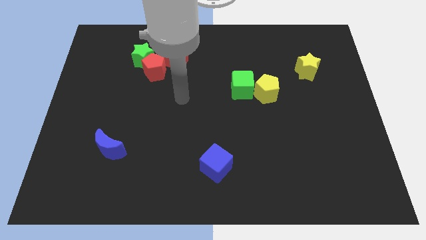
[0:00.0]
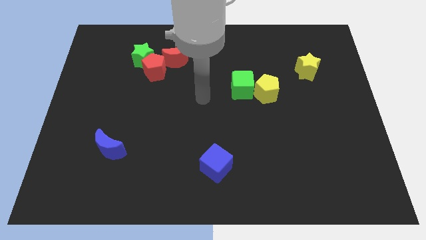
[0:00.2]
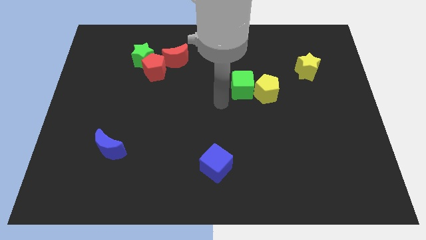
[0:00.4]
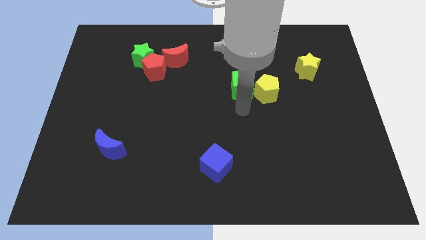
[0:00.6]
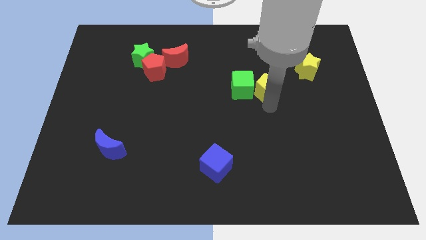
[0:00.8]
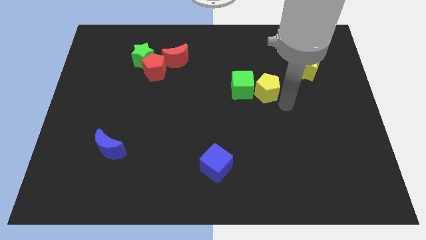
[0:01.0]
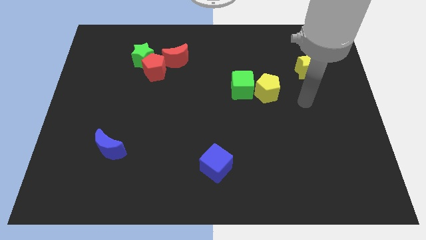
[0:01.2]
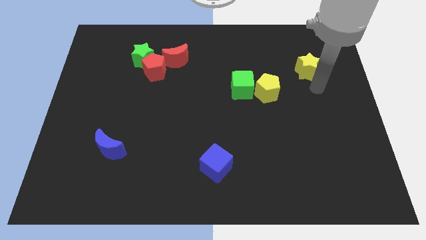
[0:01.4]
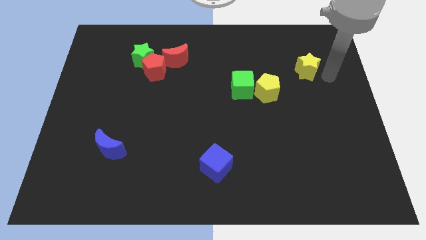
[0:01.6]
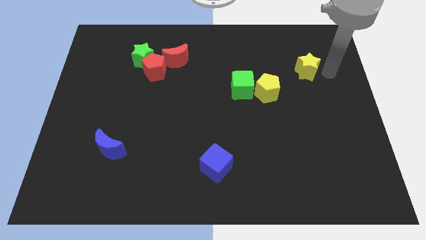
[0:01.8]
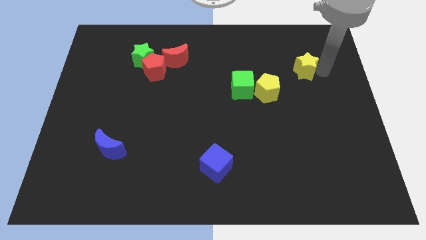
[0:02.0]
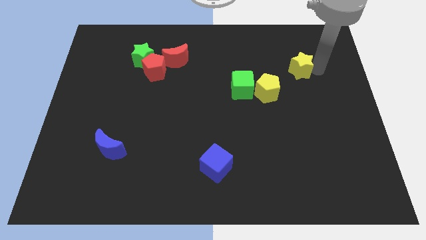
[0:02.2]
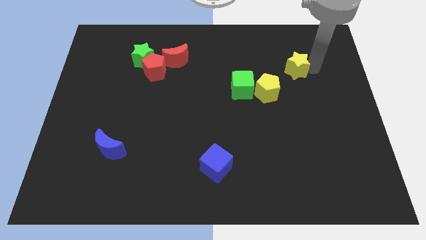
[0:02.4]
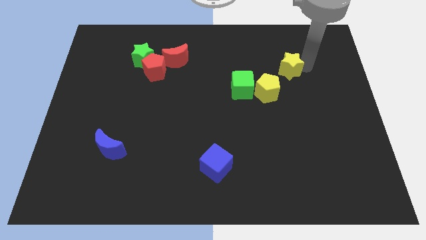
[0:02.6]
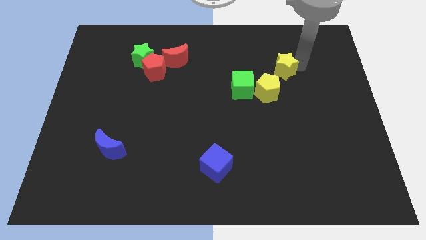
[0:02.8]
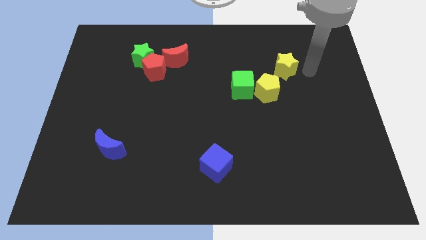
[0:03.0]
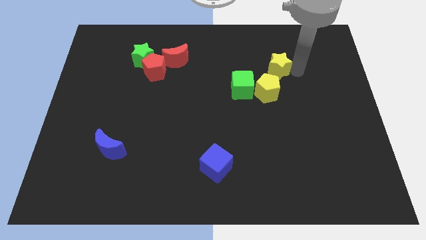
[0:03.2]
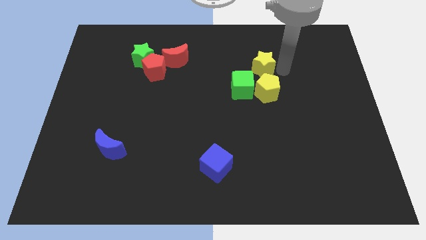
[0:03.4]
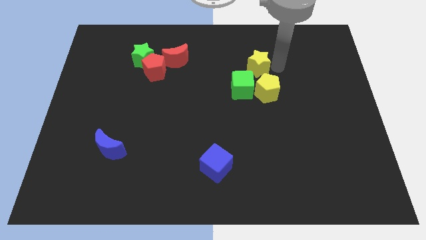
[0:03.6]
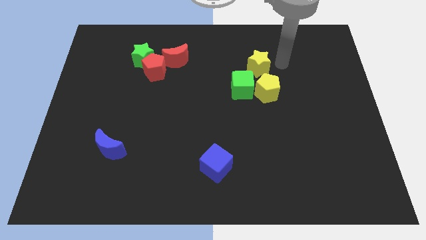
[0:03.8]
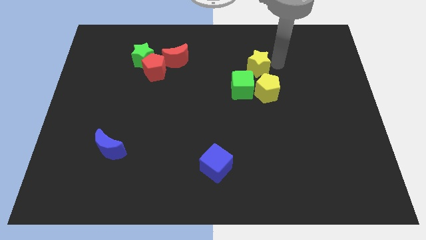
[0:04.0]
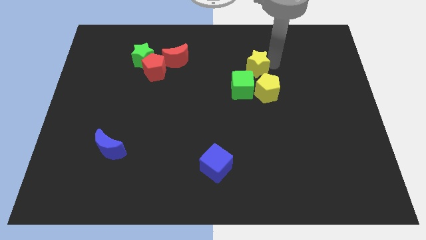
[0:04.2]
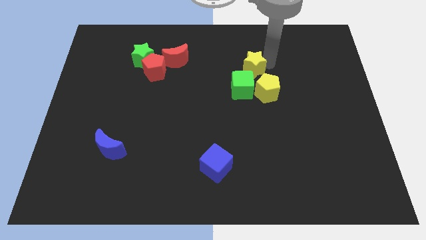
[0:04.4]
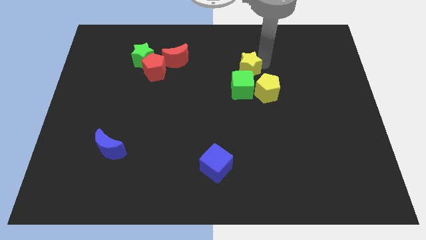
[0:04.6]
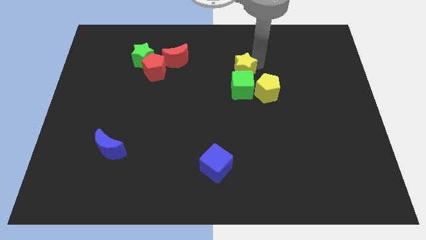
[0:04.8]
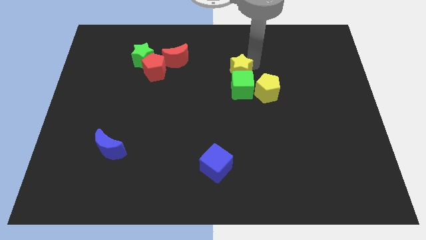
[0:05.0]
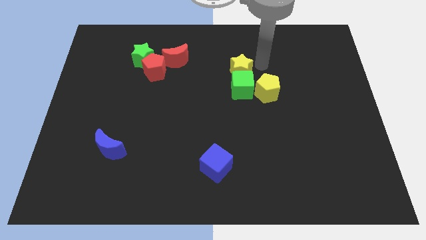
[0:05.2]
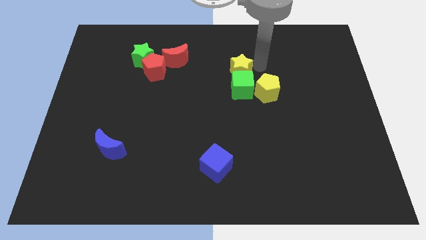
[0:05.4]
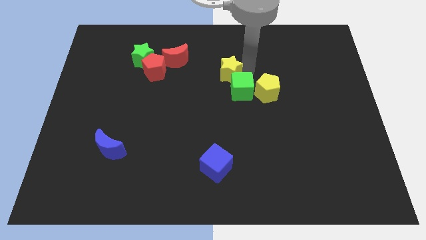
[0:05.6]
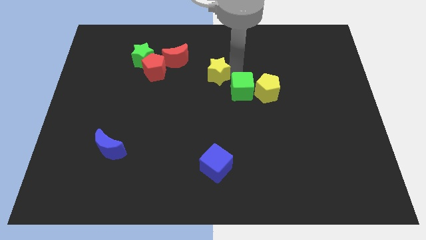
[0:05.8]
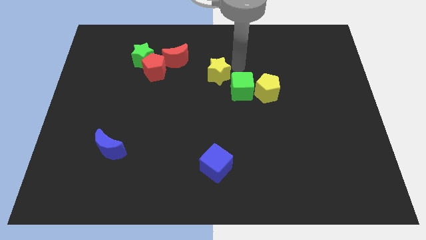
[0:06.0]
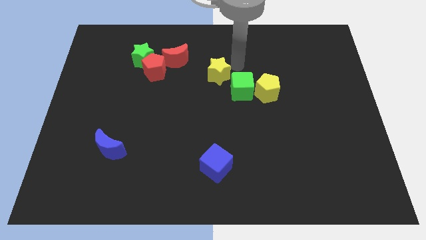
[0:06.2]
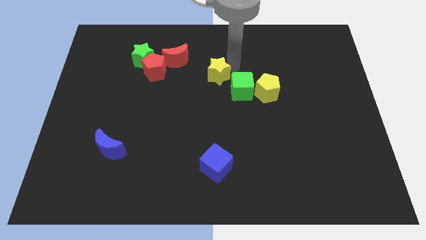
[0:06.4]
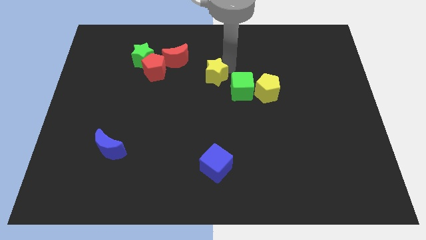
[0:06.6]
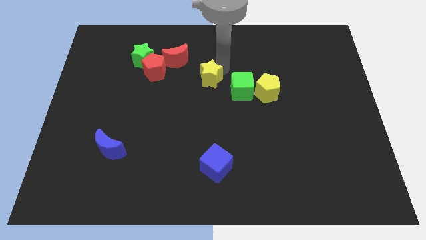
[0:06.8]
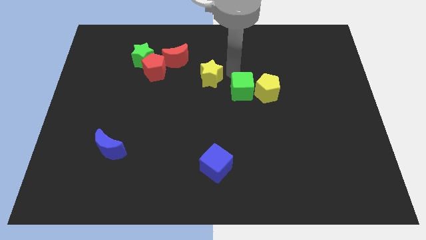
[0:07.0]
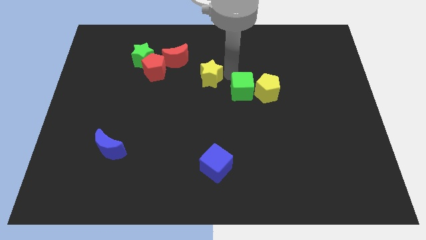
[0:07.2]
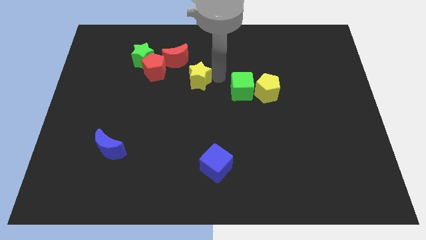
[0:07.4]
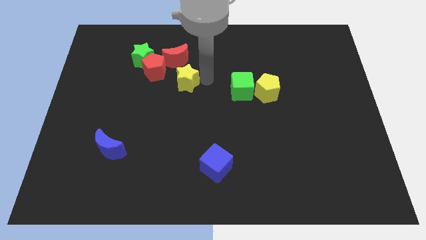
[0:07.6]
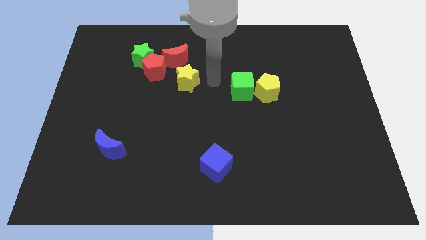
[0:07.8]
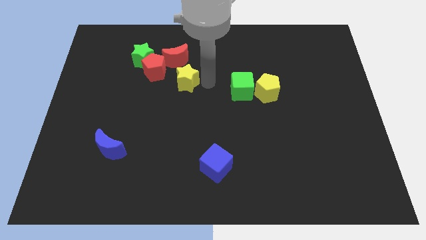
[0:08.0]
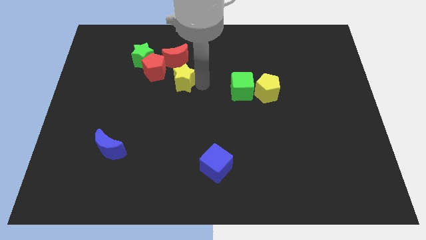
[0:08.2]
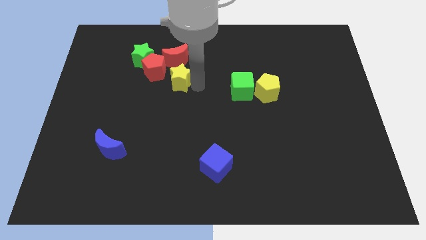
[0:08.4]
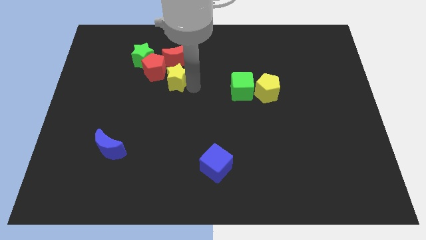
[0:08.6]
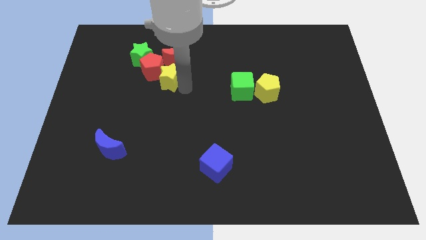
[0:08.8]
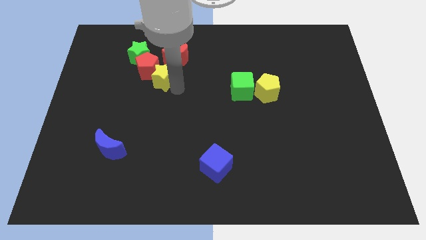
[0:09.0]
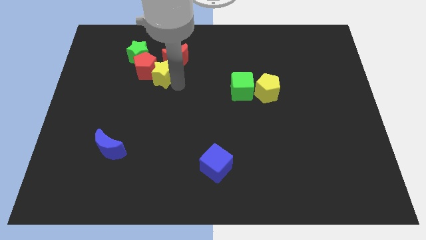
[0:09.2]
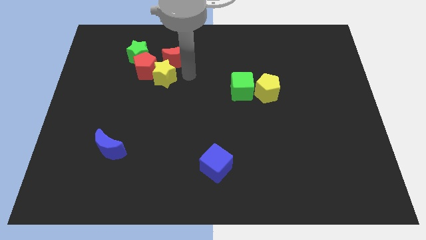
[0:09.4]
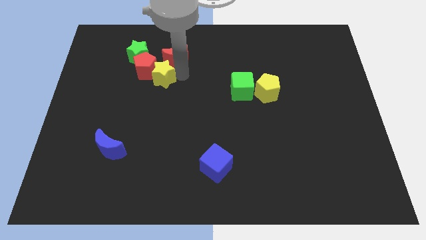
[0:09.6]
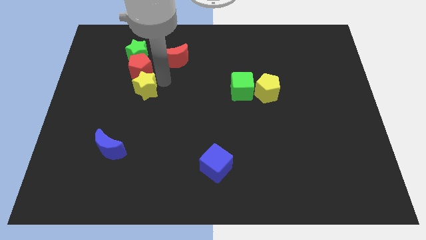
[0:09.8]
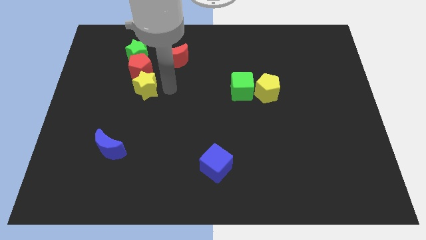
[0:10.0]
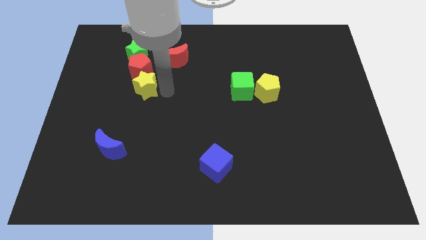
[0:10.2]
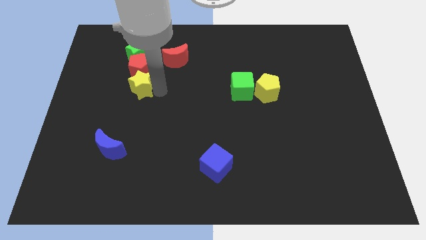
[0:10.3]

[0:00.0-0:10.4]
push the yellow star to the bottom left side of the red pentagon

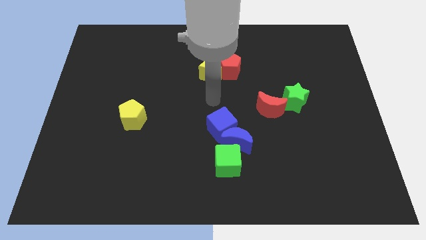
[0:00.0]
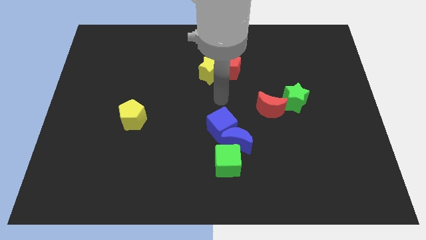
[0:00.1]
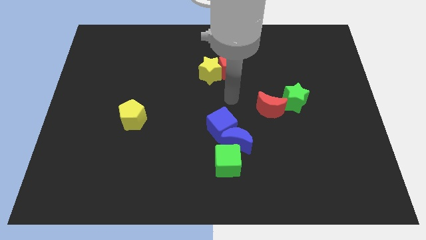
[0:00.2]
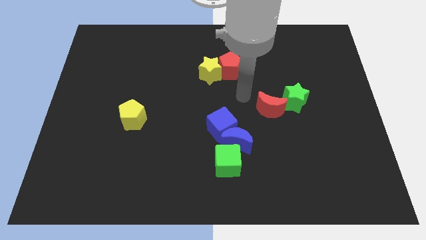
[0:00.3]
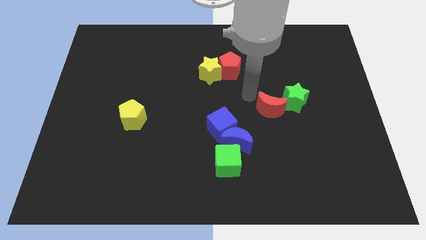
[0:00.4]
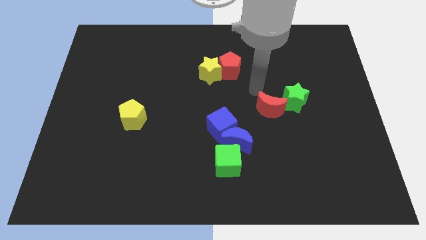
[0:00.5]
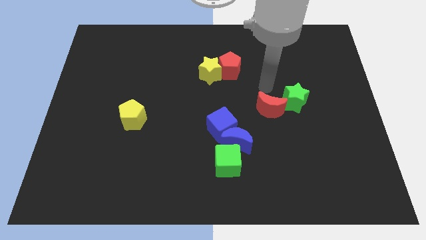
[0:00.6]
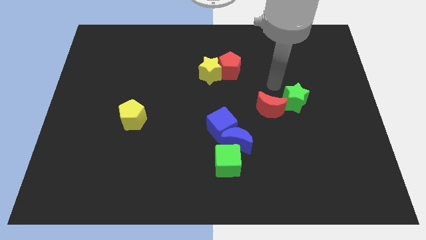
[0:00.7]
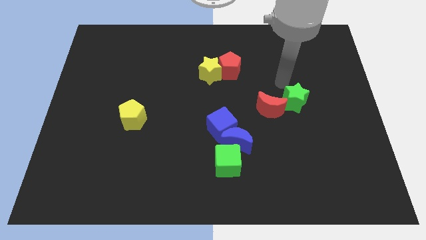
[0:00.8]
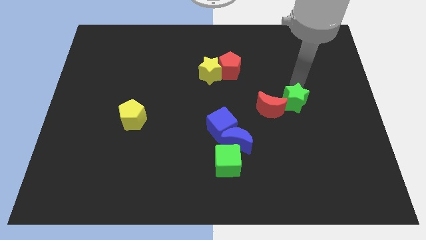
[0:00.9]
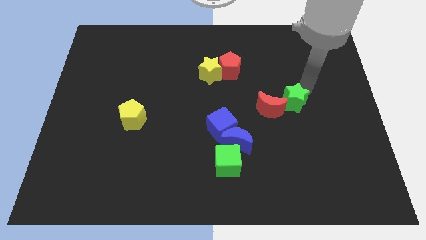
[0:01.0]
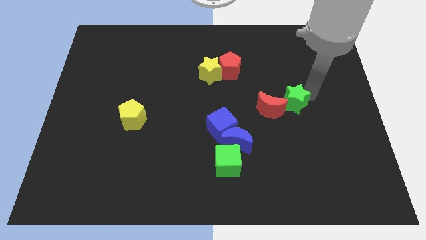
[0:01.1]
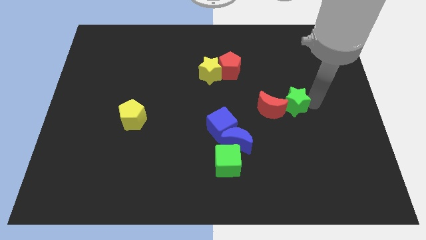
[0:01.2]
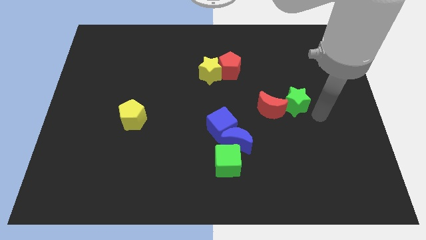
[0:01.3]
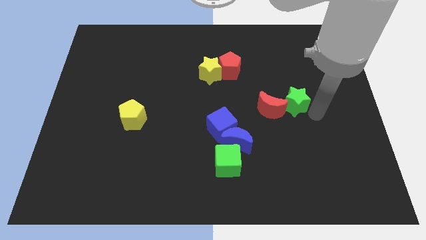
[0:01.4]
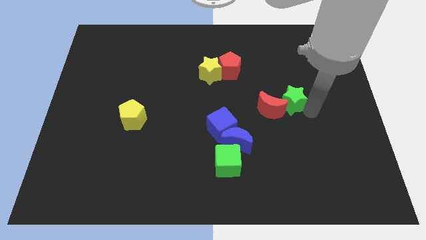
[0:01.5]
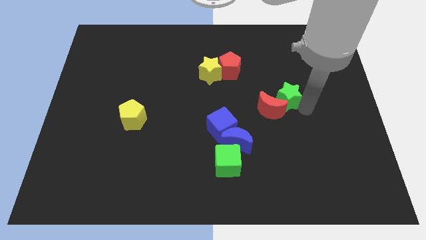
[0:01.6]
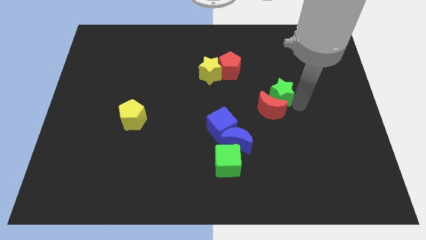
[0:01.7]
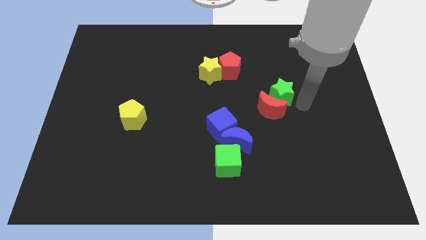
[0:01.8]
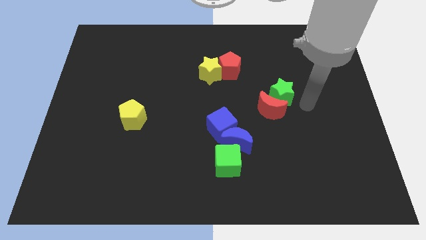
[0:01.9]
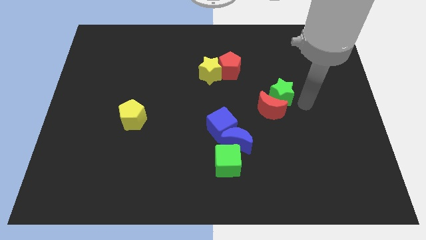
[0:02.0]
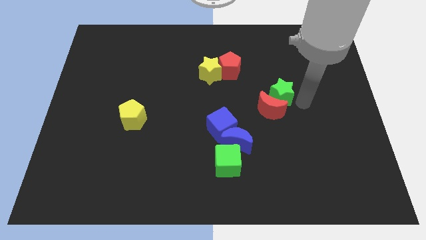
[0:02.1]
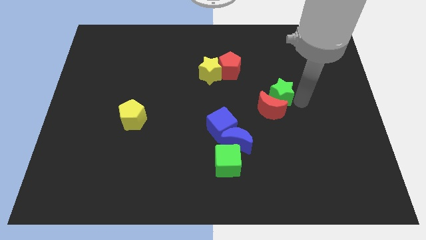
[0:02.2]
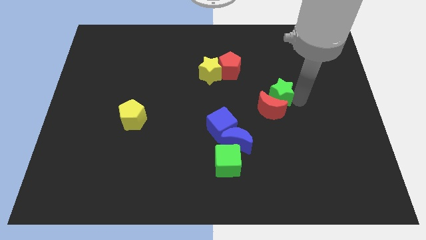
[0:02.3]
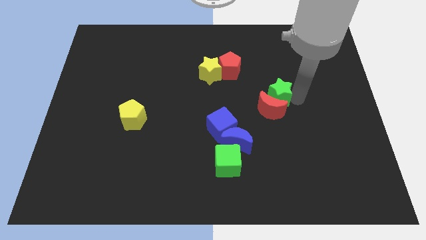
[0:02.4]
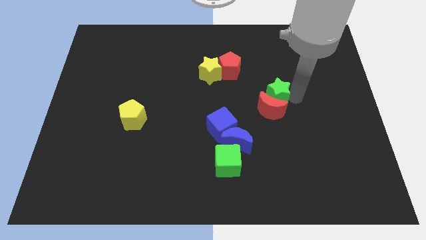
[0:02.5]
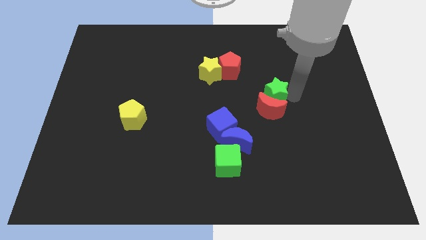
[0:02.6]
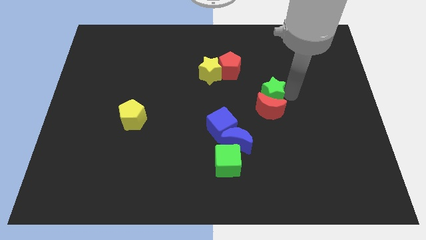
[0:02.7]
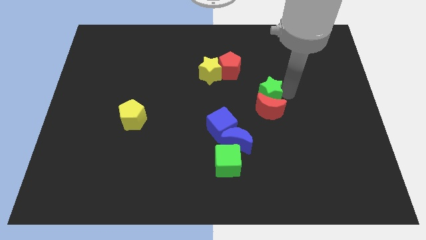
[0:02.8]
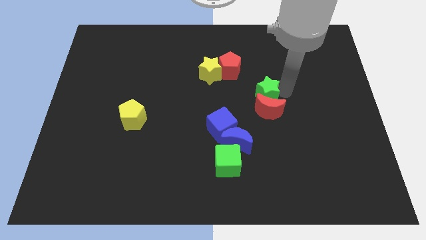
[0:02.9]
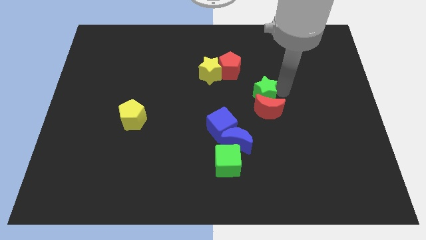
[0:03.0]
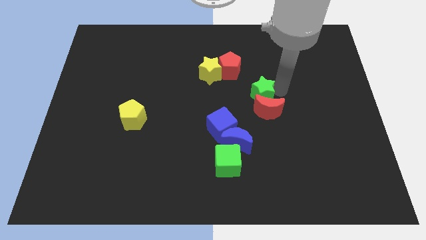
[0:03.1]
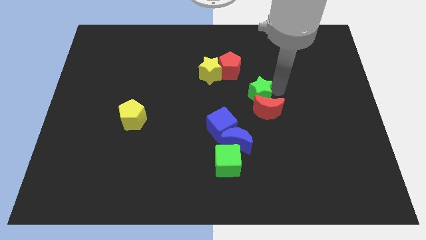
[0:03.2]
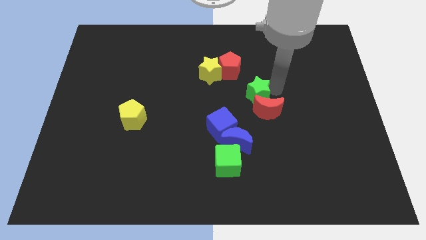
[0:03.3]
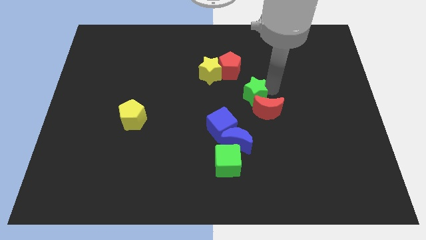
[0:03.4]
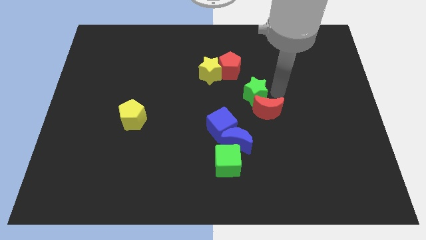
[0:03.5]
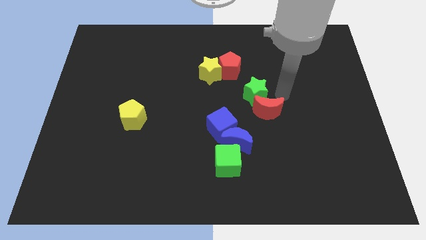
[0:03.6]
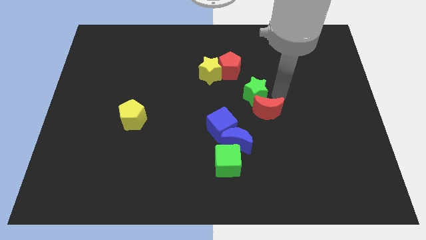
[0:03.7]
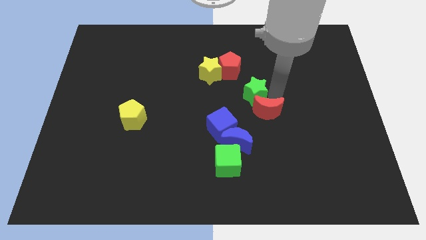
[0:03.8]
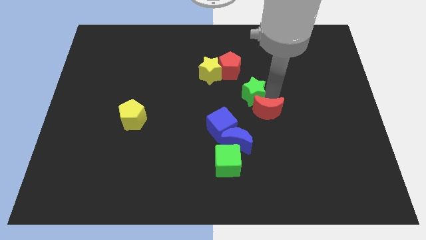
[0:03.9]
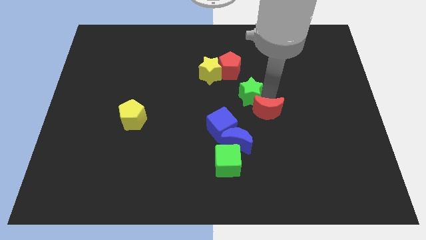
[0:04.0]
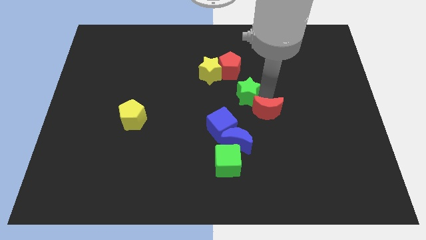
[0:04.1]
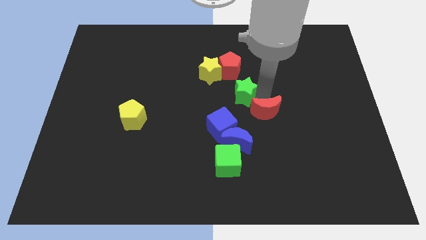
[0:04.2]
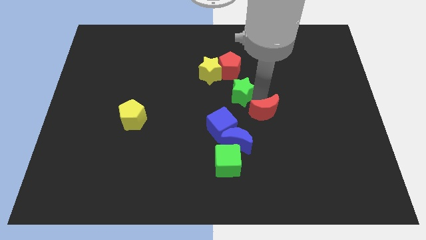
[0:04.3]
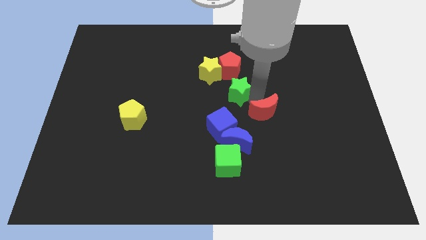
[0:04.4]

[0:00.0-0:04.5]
put the green star to the top of the blue cube
